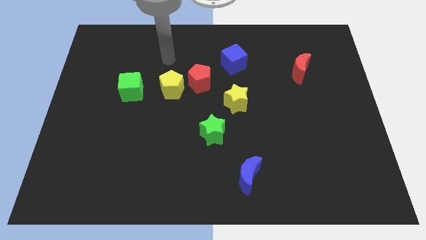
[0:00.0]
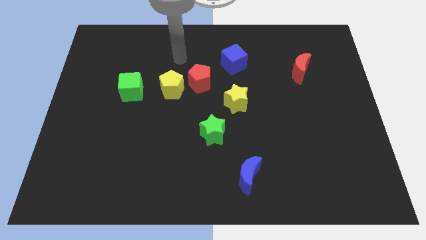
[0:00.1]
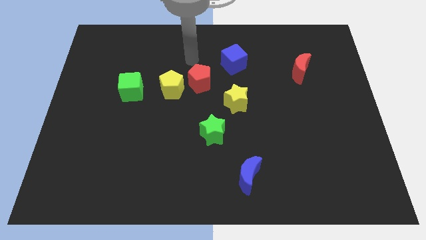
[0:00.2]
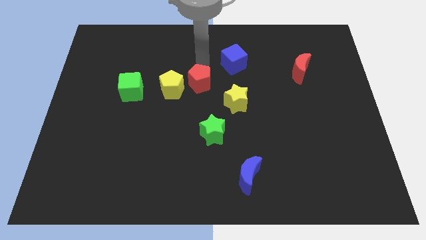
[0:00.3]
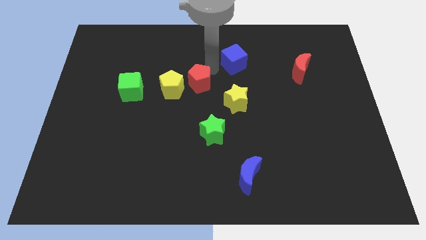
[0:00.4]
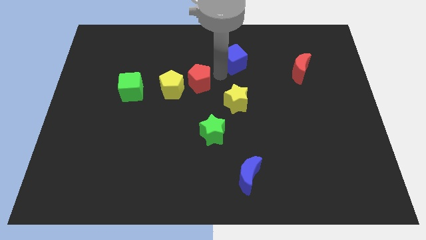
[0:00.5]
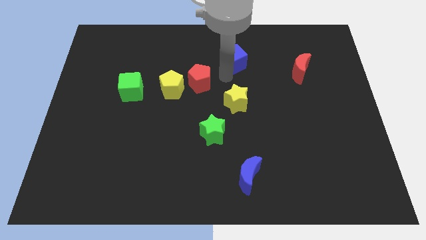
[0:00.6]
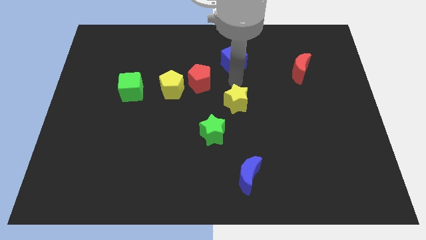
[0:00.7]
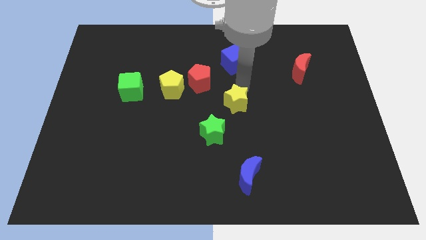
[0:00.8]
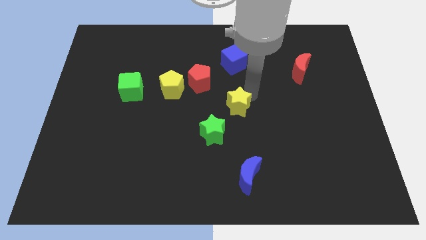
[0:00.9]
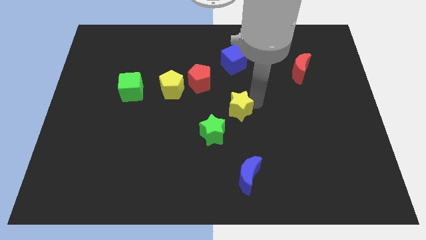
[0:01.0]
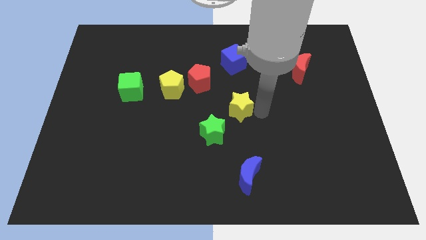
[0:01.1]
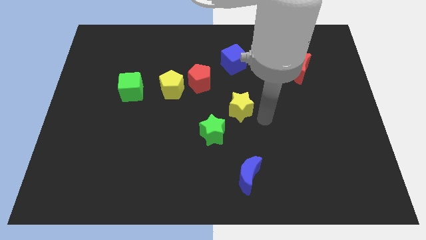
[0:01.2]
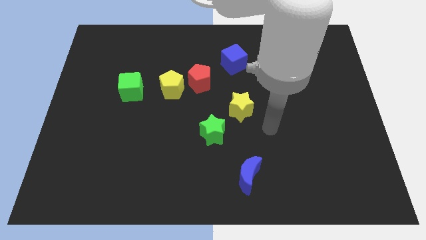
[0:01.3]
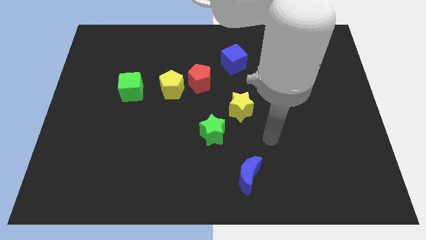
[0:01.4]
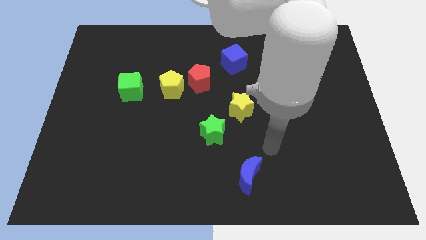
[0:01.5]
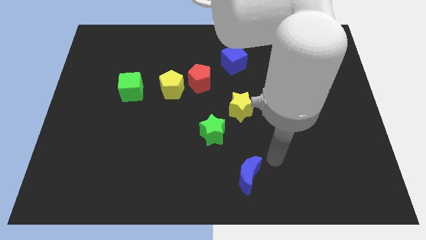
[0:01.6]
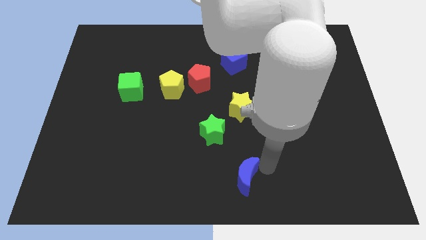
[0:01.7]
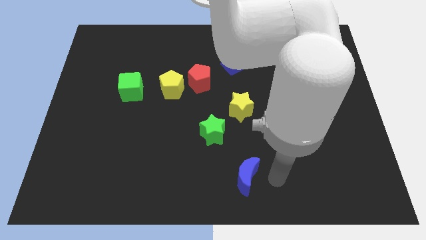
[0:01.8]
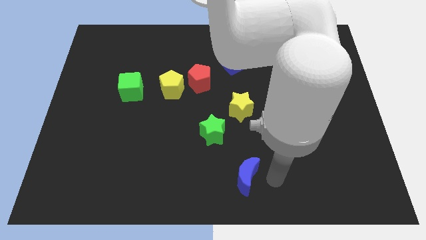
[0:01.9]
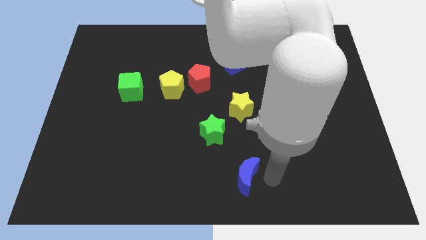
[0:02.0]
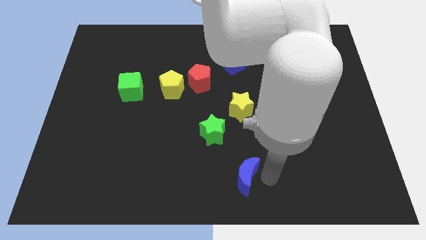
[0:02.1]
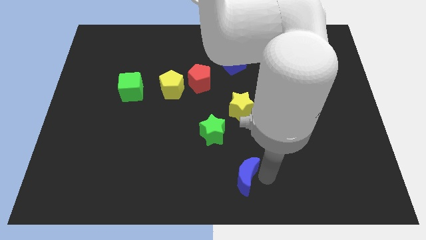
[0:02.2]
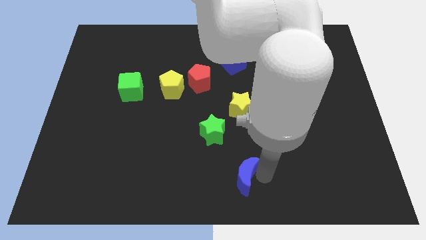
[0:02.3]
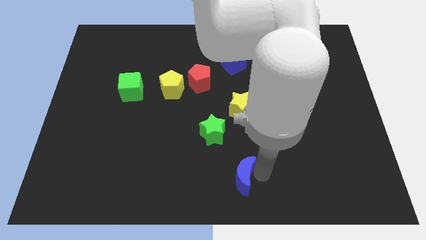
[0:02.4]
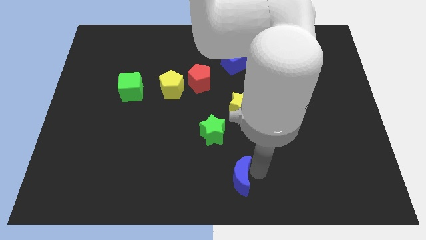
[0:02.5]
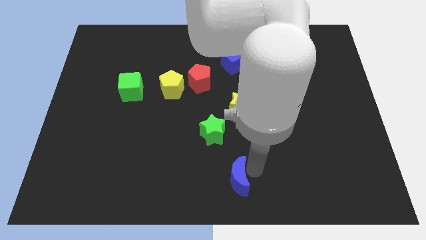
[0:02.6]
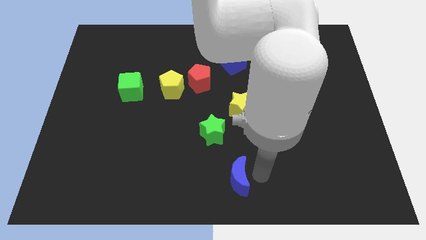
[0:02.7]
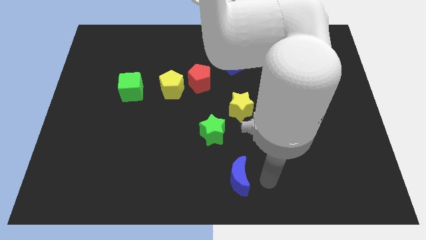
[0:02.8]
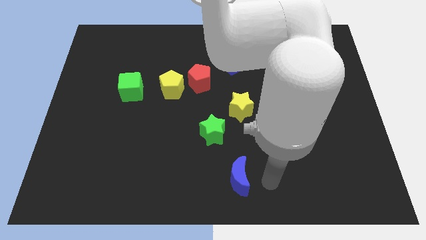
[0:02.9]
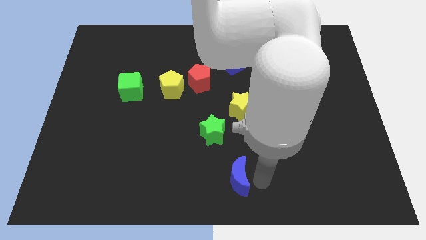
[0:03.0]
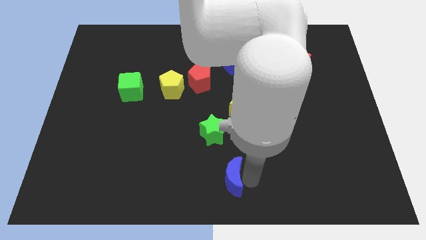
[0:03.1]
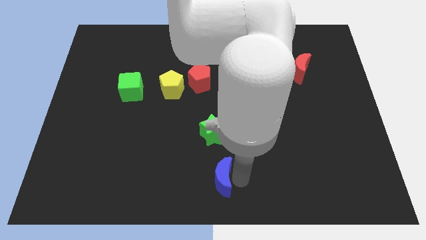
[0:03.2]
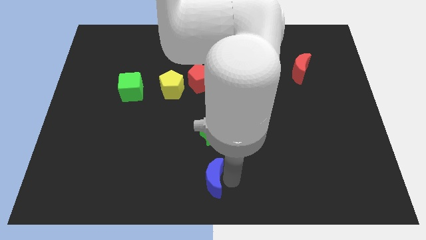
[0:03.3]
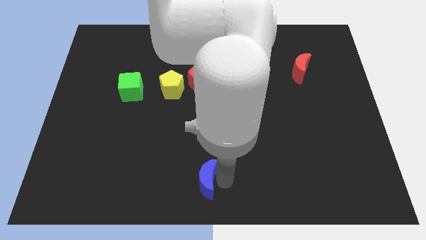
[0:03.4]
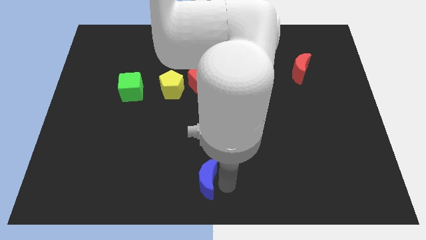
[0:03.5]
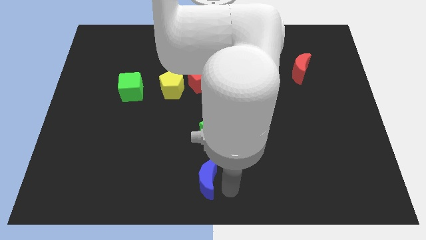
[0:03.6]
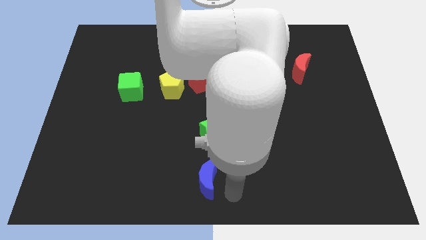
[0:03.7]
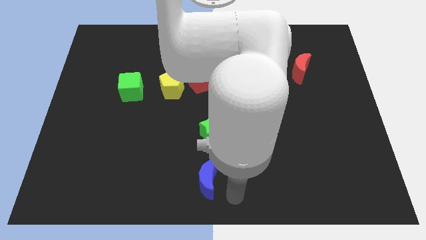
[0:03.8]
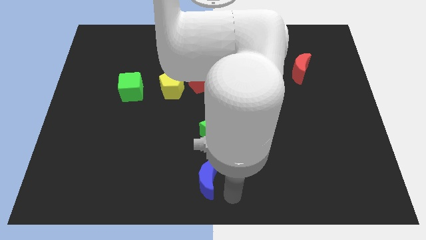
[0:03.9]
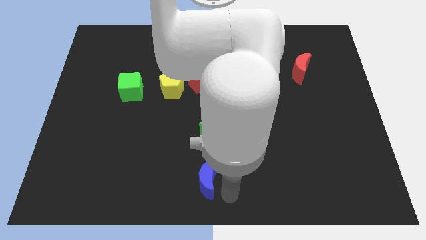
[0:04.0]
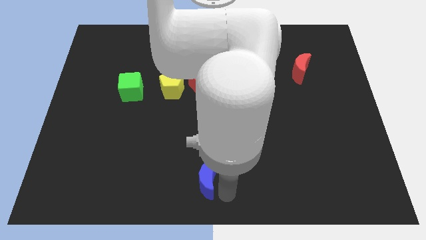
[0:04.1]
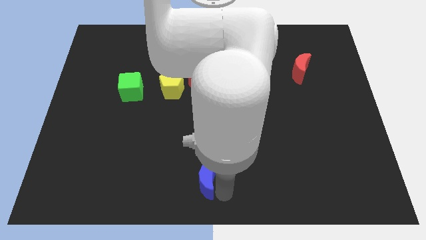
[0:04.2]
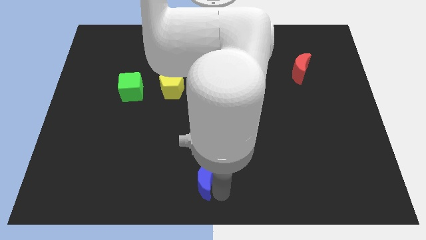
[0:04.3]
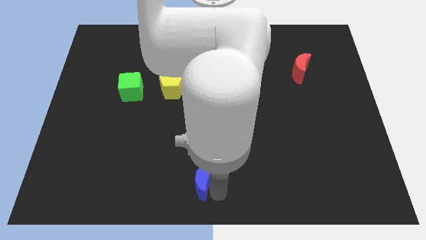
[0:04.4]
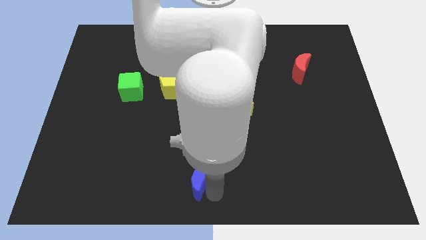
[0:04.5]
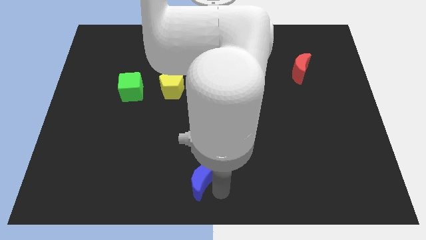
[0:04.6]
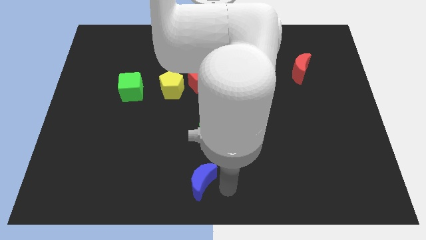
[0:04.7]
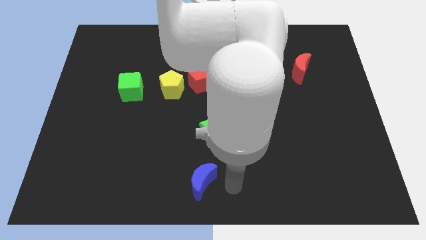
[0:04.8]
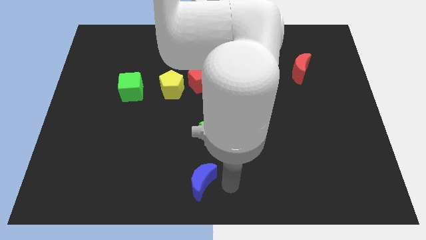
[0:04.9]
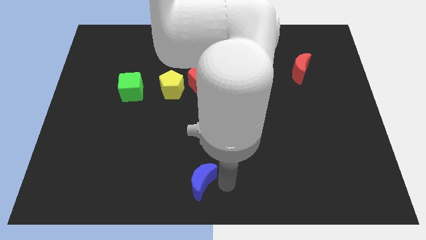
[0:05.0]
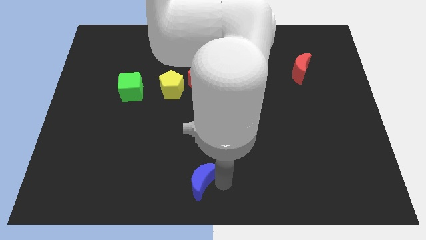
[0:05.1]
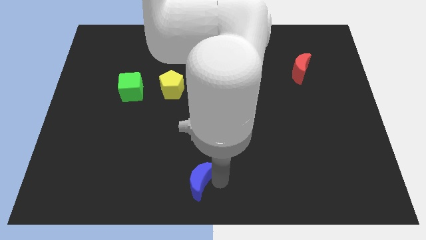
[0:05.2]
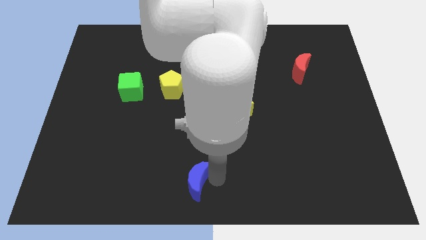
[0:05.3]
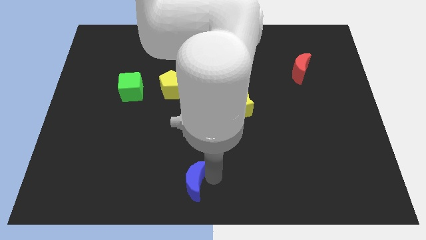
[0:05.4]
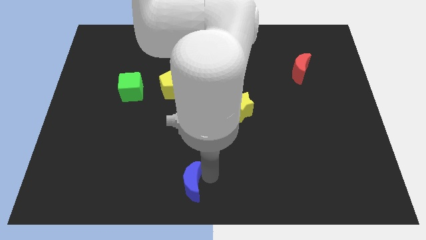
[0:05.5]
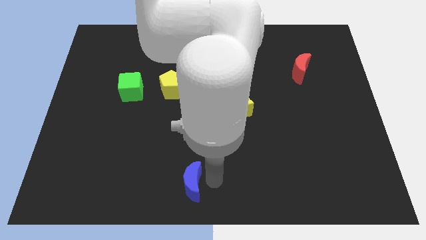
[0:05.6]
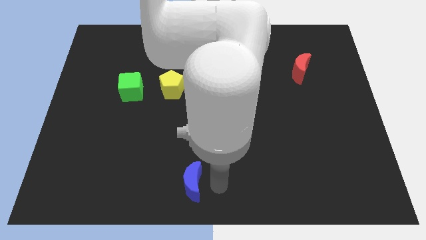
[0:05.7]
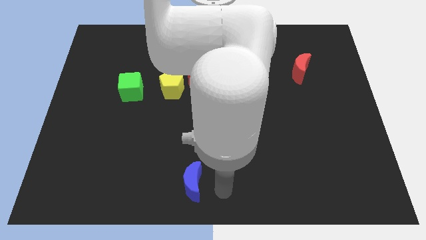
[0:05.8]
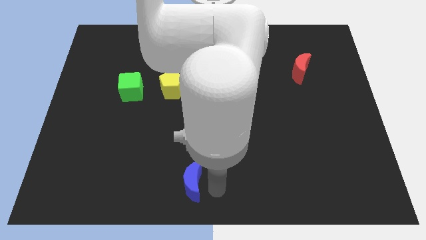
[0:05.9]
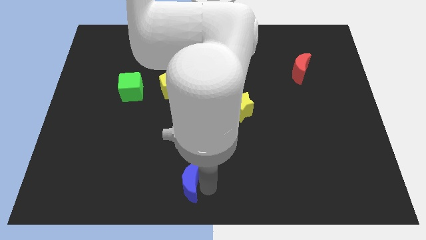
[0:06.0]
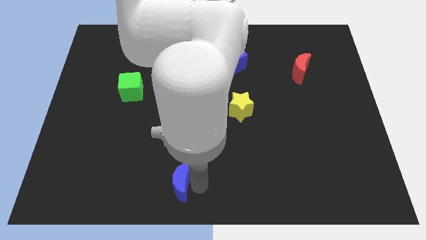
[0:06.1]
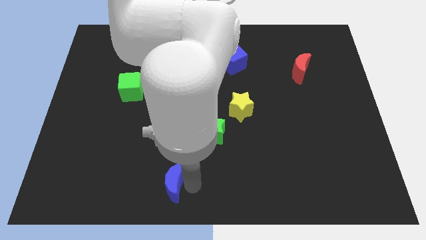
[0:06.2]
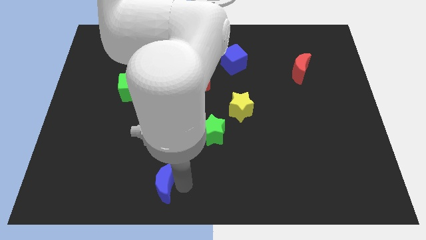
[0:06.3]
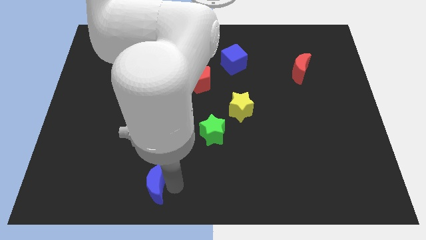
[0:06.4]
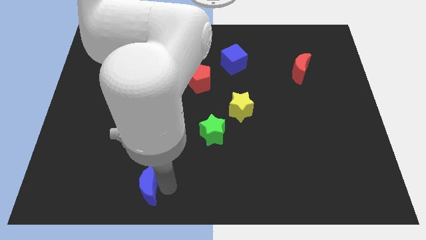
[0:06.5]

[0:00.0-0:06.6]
move the blue moon to the left

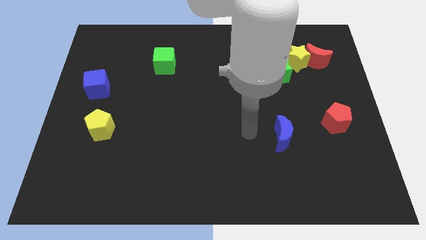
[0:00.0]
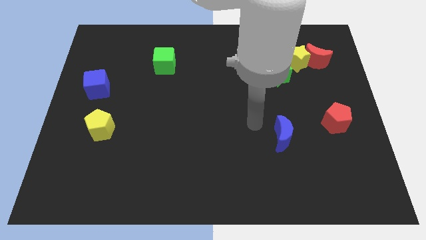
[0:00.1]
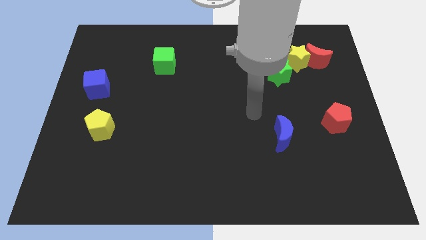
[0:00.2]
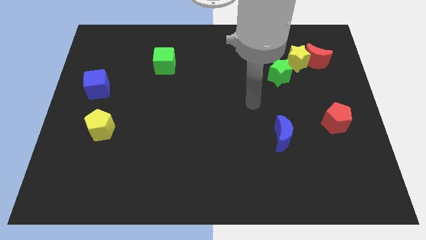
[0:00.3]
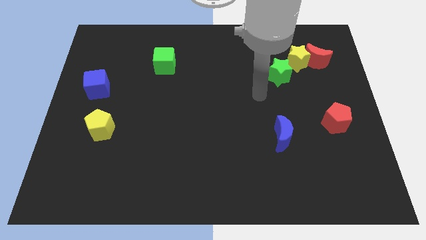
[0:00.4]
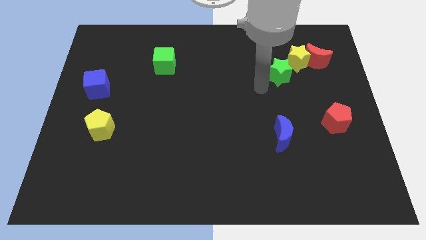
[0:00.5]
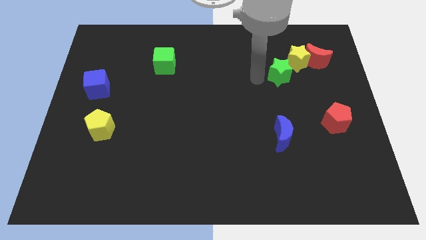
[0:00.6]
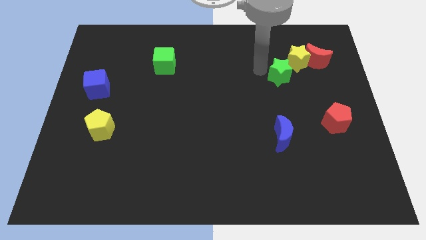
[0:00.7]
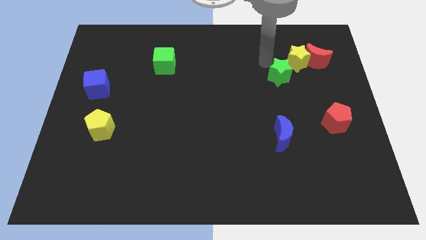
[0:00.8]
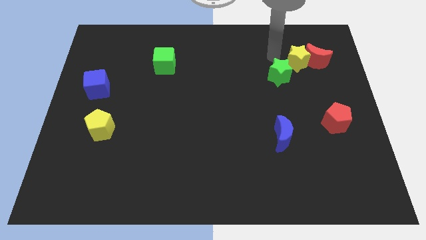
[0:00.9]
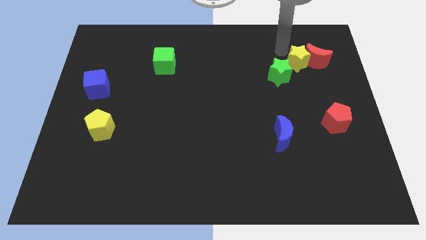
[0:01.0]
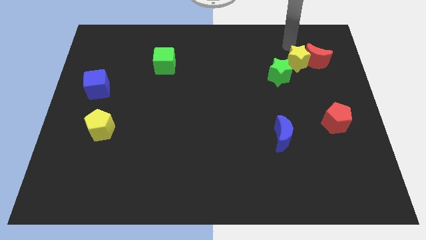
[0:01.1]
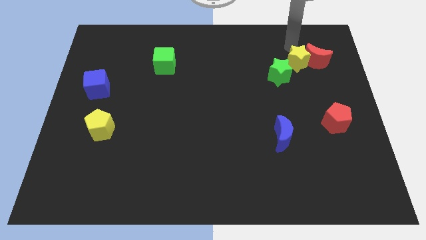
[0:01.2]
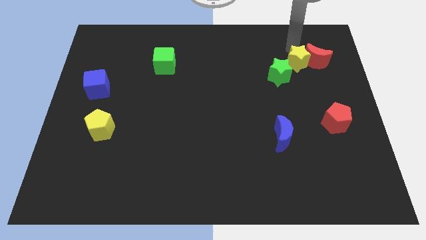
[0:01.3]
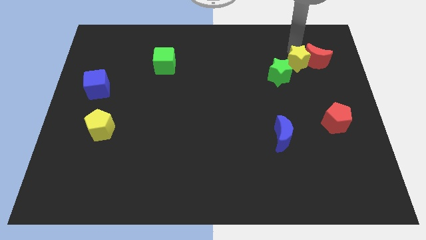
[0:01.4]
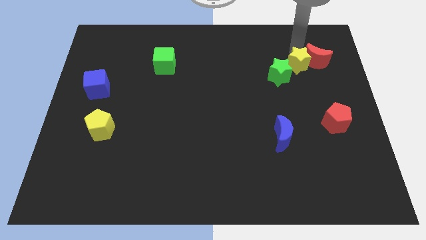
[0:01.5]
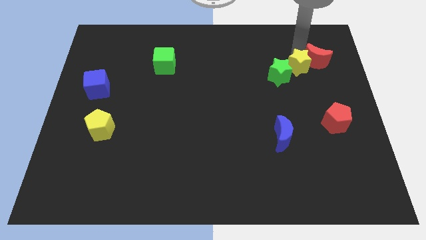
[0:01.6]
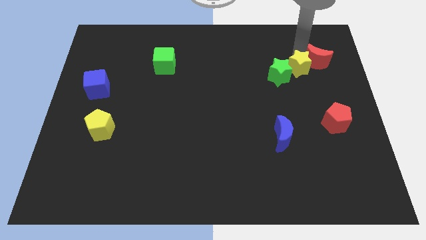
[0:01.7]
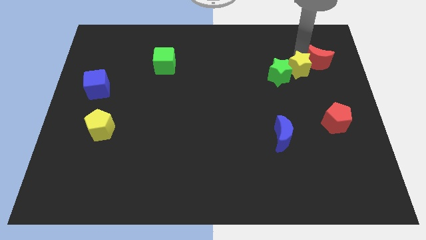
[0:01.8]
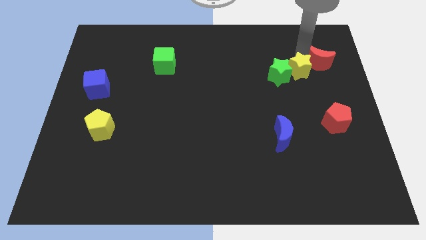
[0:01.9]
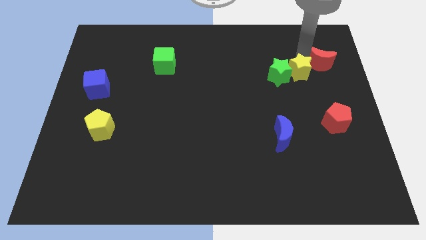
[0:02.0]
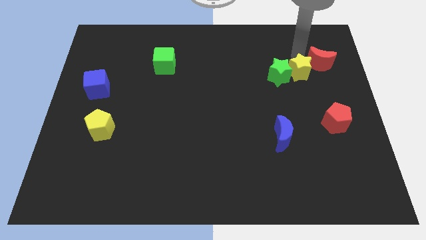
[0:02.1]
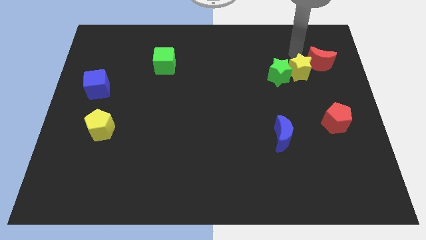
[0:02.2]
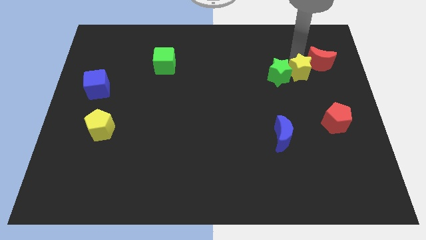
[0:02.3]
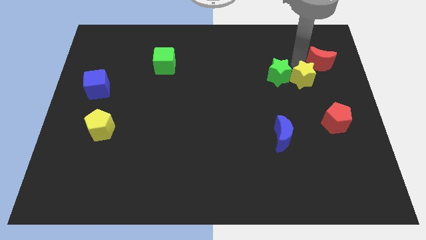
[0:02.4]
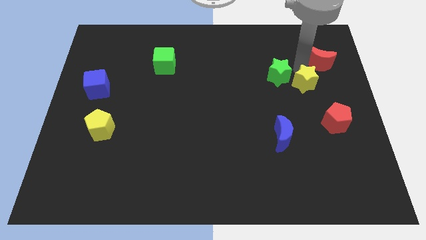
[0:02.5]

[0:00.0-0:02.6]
slide the yellow star downwards a little
